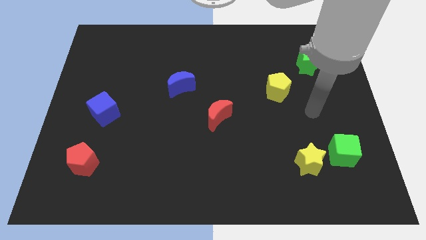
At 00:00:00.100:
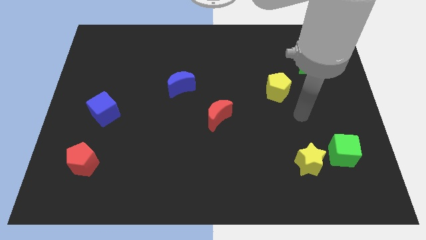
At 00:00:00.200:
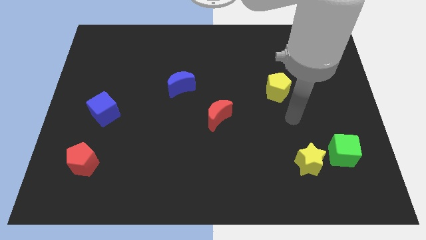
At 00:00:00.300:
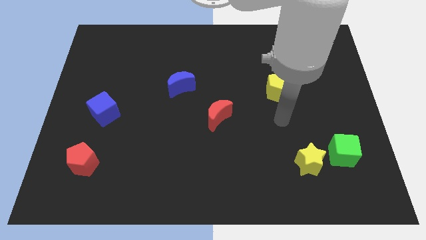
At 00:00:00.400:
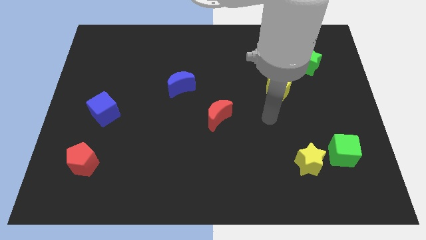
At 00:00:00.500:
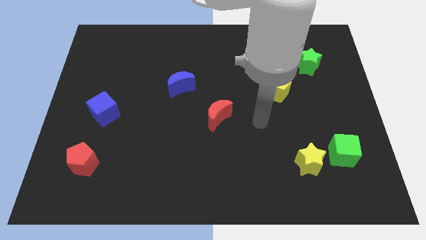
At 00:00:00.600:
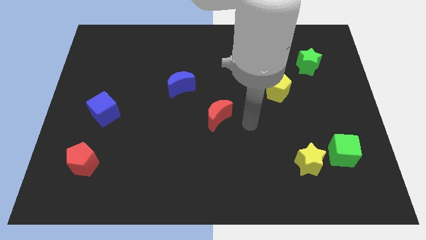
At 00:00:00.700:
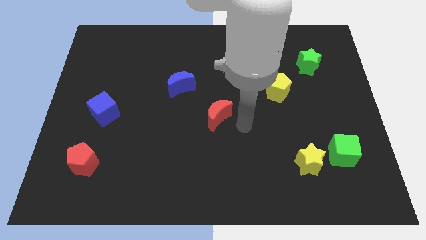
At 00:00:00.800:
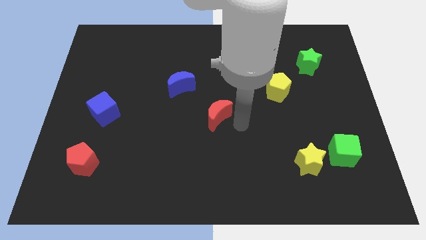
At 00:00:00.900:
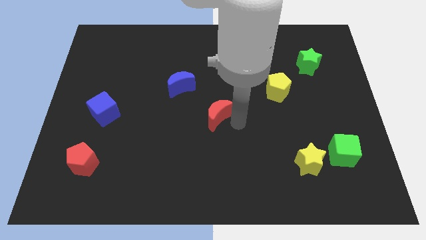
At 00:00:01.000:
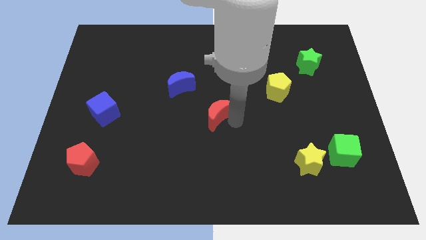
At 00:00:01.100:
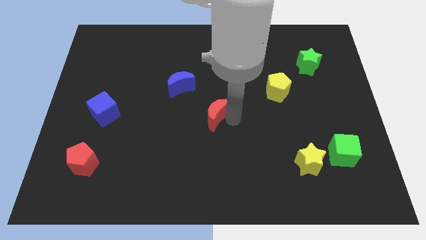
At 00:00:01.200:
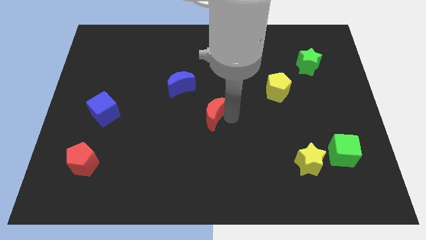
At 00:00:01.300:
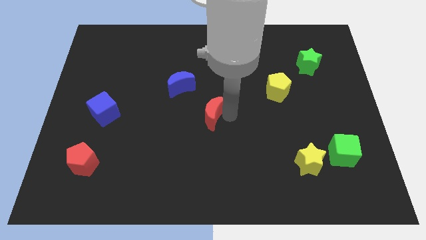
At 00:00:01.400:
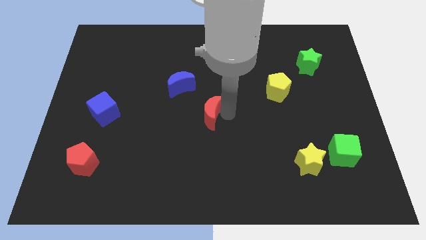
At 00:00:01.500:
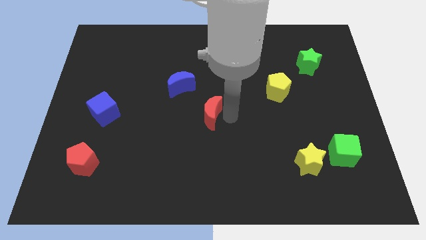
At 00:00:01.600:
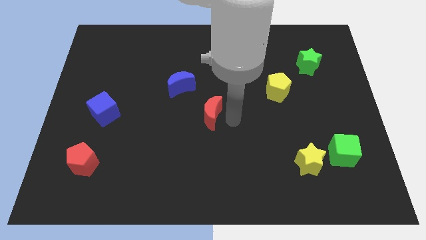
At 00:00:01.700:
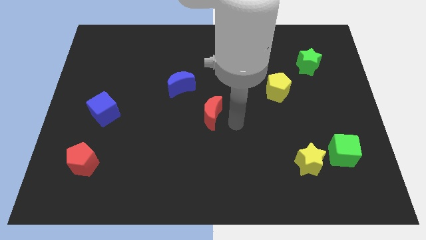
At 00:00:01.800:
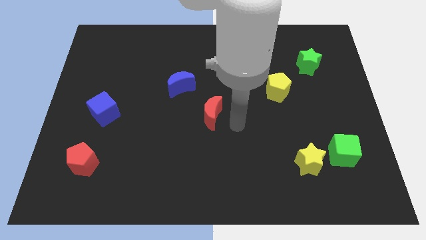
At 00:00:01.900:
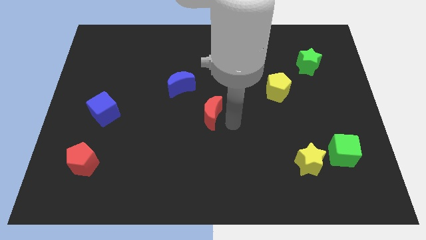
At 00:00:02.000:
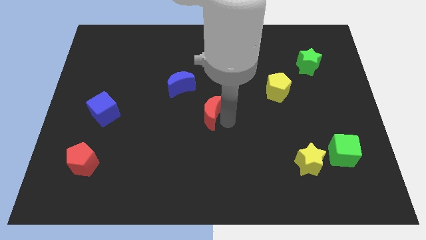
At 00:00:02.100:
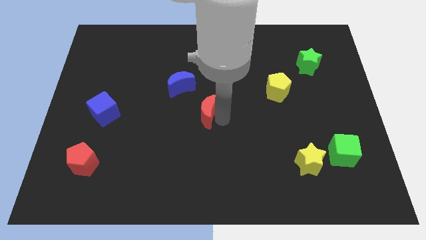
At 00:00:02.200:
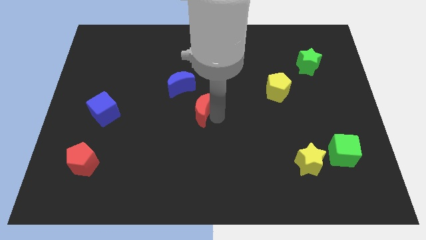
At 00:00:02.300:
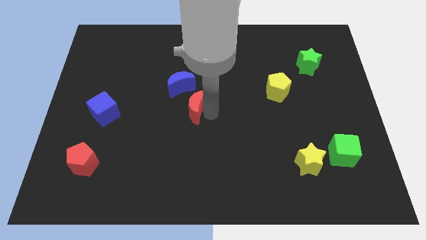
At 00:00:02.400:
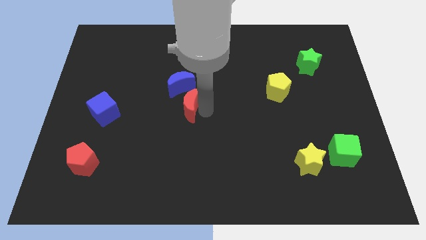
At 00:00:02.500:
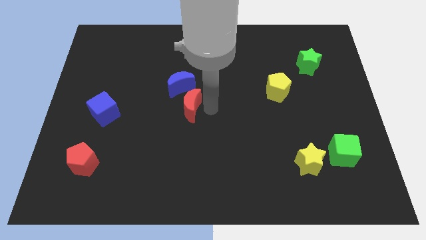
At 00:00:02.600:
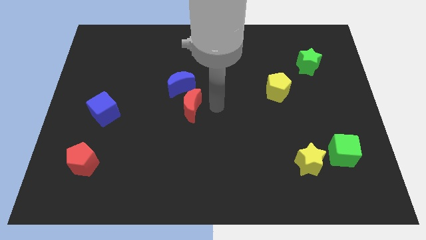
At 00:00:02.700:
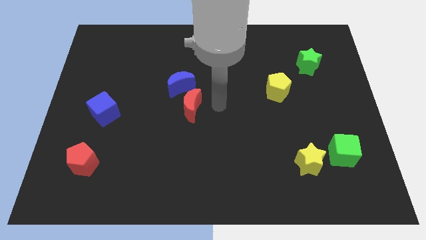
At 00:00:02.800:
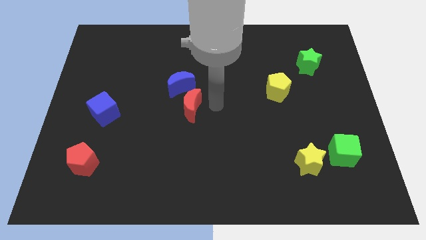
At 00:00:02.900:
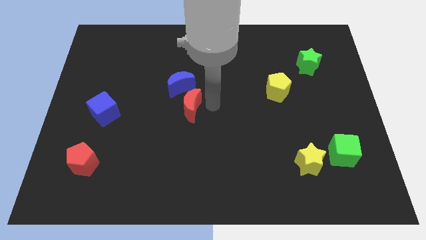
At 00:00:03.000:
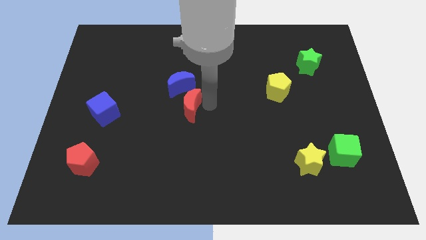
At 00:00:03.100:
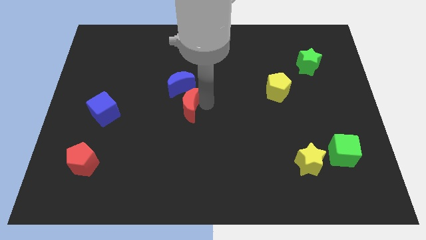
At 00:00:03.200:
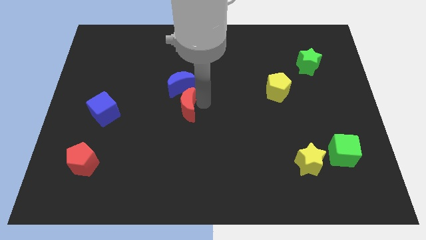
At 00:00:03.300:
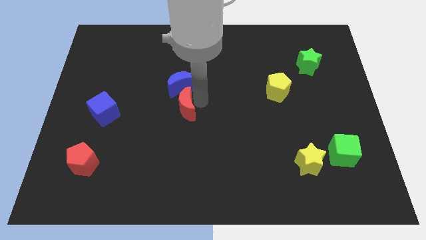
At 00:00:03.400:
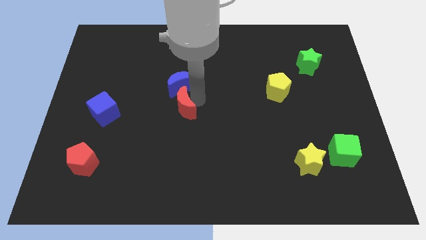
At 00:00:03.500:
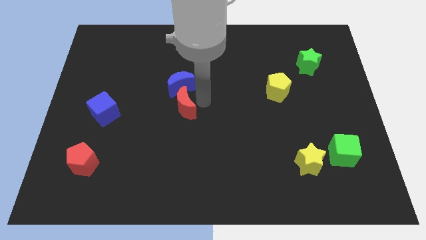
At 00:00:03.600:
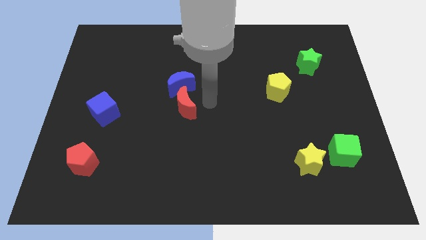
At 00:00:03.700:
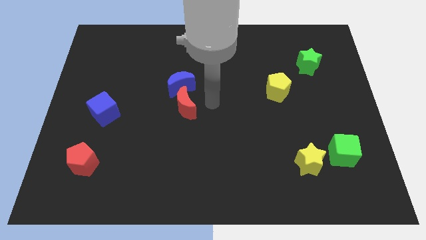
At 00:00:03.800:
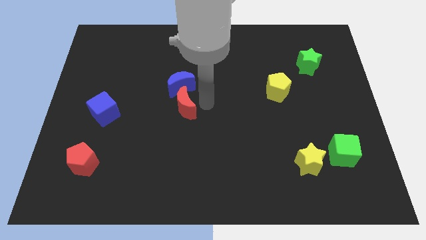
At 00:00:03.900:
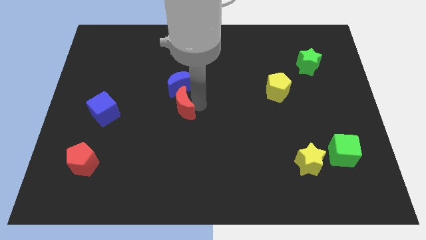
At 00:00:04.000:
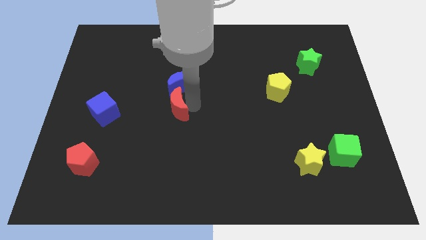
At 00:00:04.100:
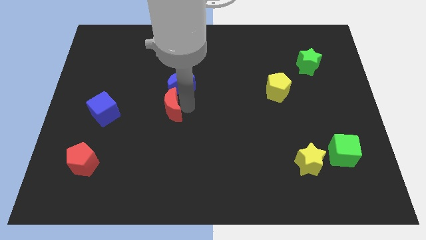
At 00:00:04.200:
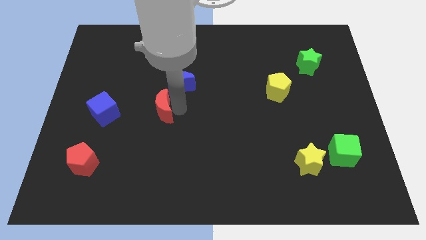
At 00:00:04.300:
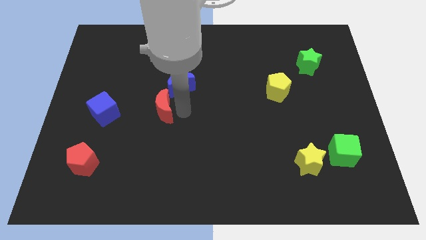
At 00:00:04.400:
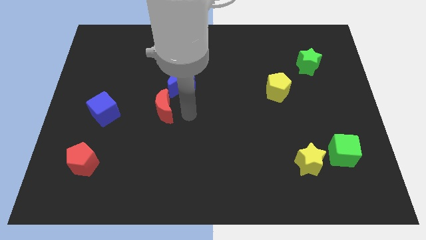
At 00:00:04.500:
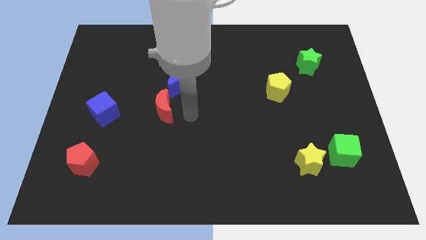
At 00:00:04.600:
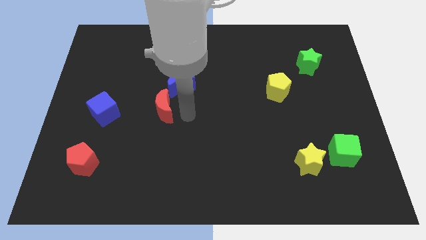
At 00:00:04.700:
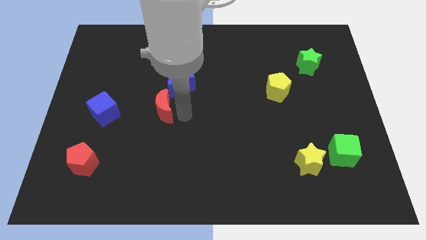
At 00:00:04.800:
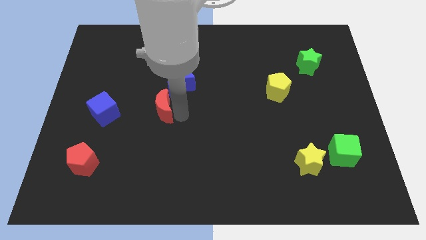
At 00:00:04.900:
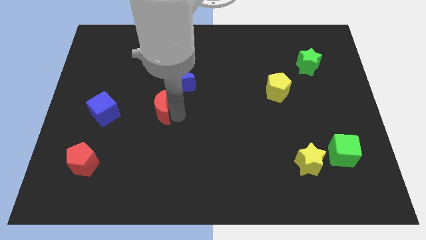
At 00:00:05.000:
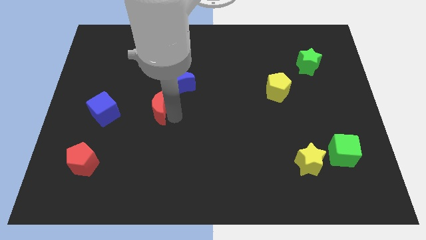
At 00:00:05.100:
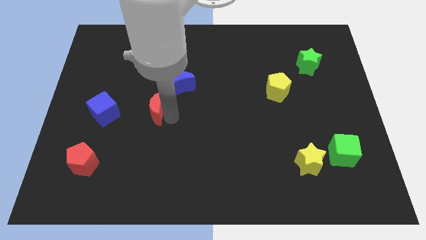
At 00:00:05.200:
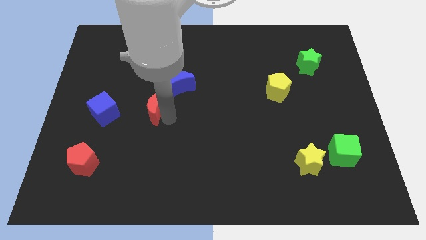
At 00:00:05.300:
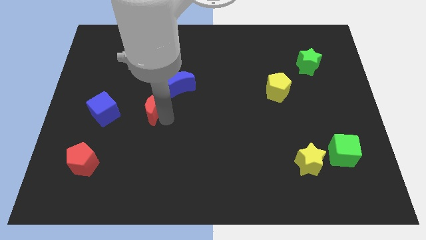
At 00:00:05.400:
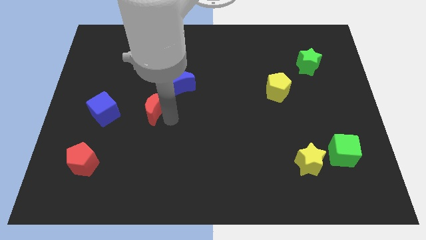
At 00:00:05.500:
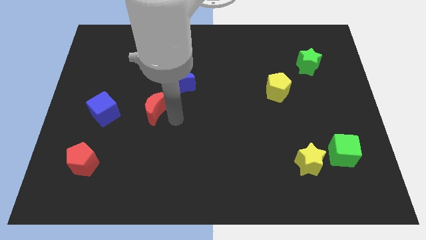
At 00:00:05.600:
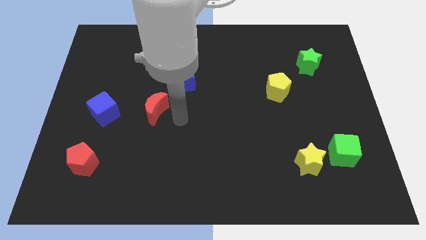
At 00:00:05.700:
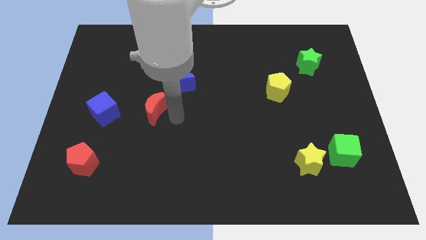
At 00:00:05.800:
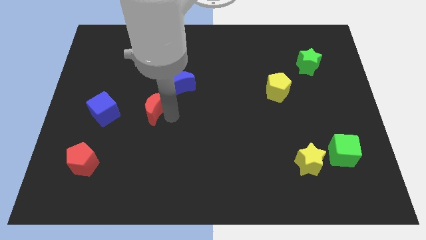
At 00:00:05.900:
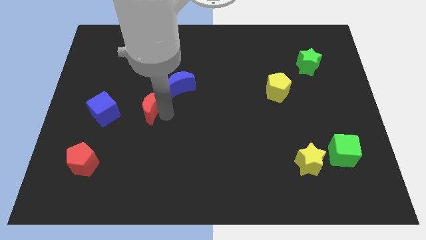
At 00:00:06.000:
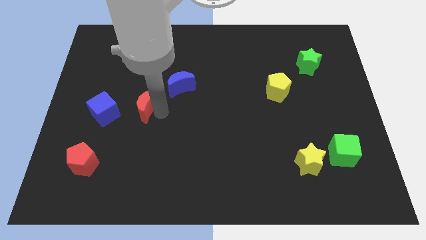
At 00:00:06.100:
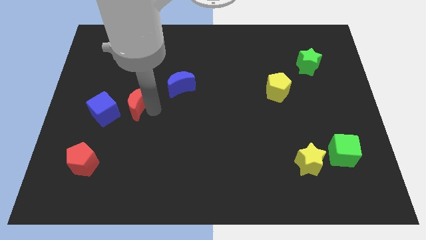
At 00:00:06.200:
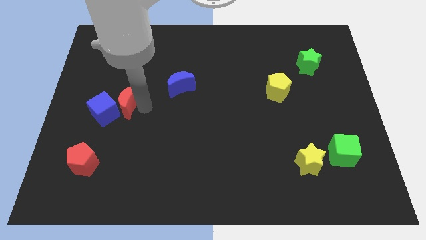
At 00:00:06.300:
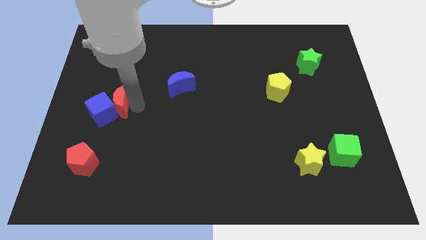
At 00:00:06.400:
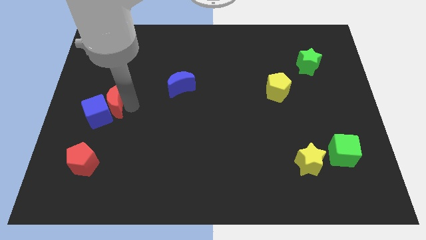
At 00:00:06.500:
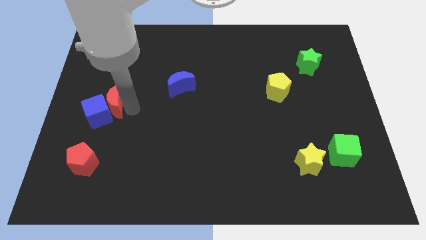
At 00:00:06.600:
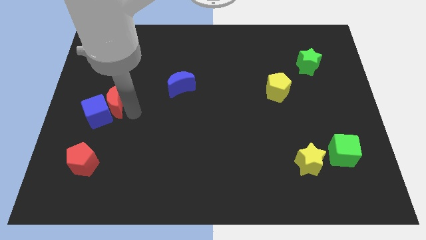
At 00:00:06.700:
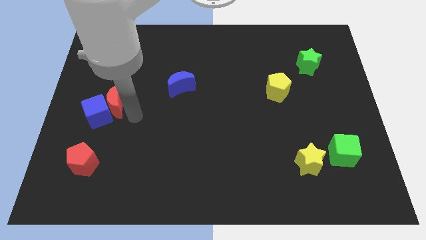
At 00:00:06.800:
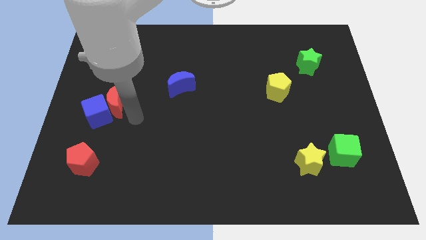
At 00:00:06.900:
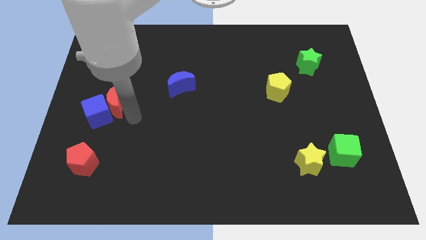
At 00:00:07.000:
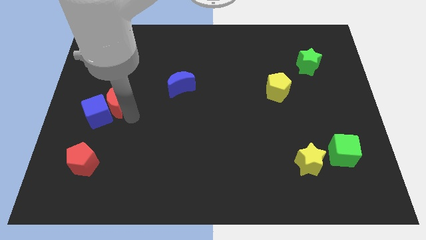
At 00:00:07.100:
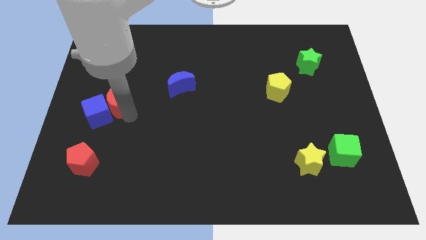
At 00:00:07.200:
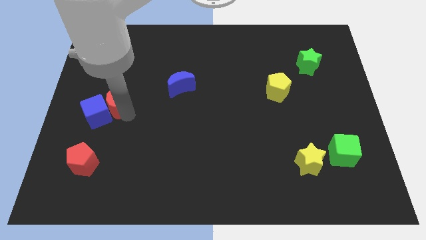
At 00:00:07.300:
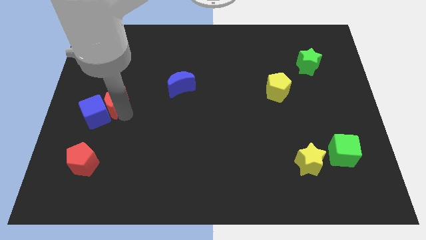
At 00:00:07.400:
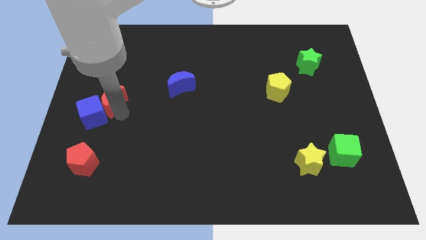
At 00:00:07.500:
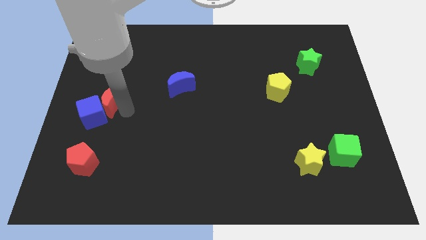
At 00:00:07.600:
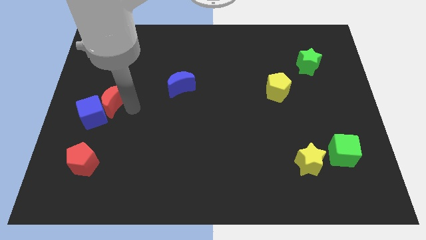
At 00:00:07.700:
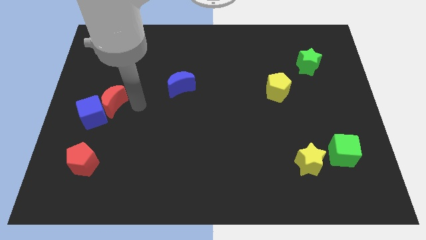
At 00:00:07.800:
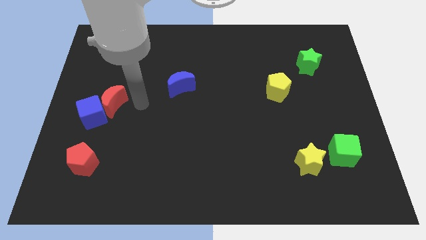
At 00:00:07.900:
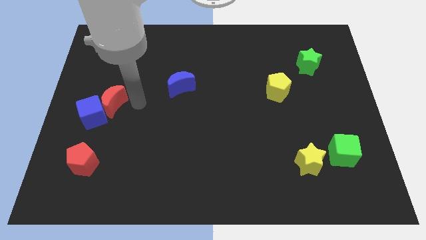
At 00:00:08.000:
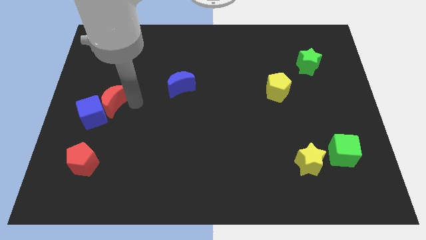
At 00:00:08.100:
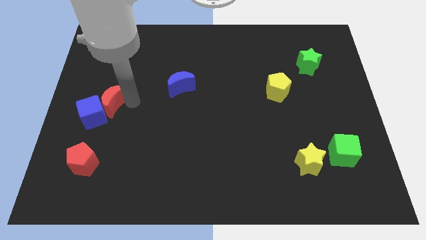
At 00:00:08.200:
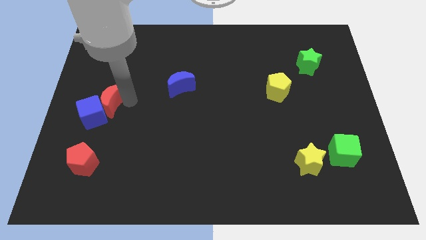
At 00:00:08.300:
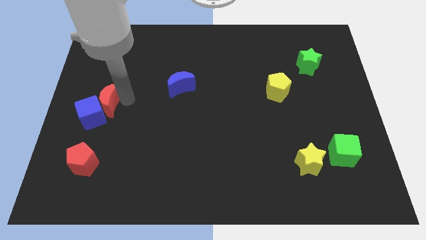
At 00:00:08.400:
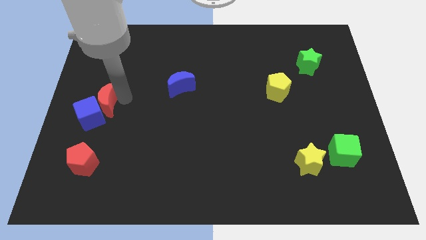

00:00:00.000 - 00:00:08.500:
move the red moon to the center left
